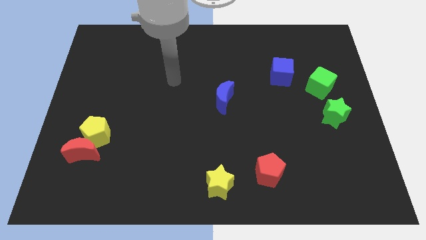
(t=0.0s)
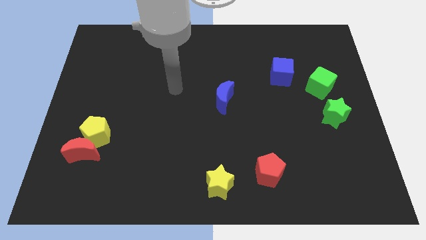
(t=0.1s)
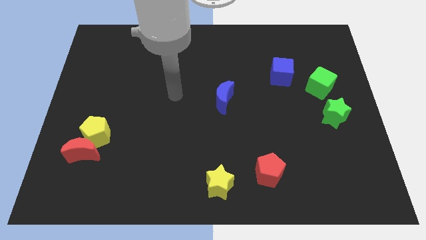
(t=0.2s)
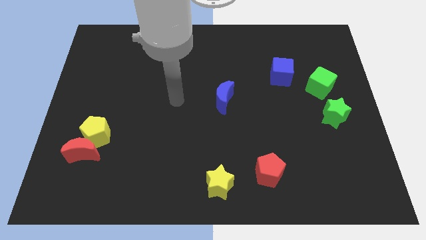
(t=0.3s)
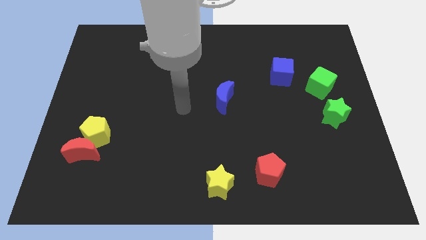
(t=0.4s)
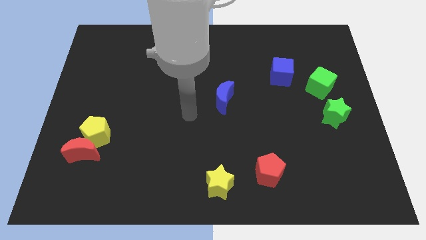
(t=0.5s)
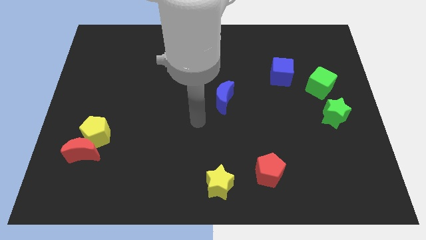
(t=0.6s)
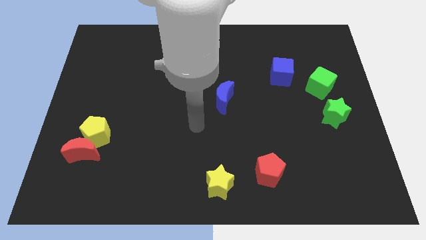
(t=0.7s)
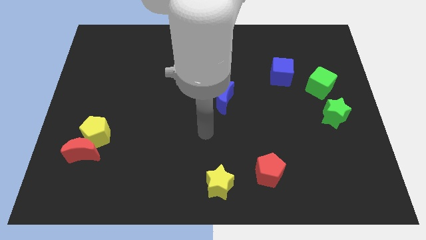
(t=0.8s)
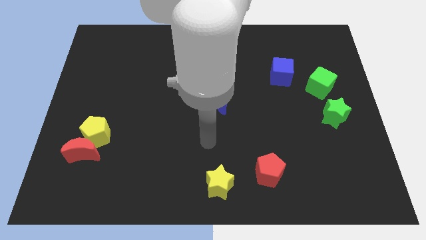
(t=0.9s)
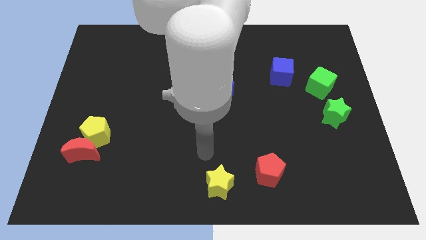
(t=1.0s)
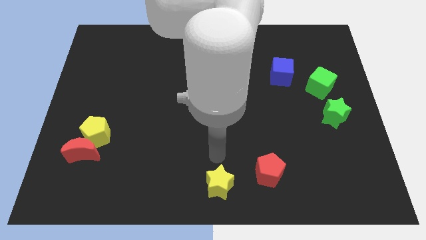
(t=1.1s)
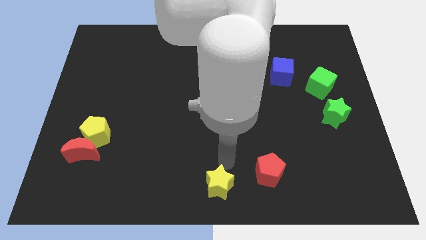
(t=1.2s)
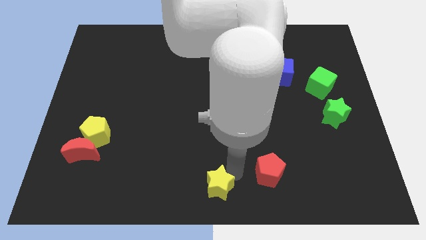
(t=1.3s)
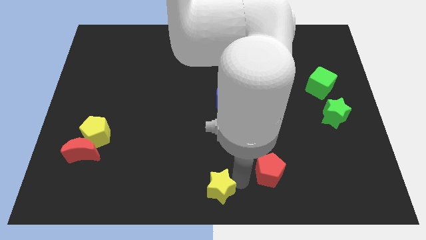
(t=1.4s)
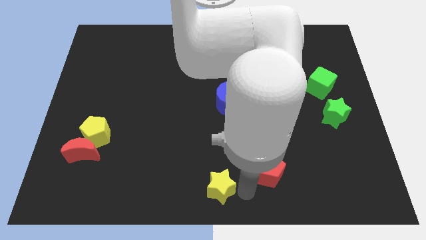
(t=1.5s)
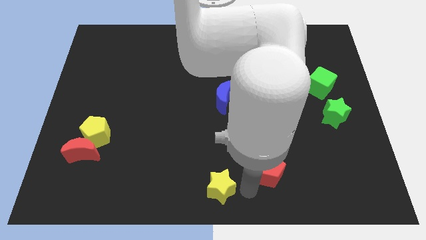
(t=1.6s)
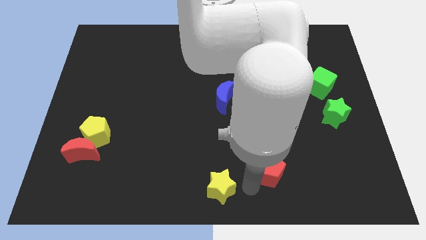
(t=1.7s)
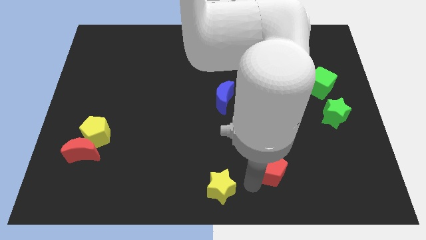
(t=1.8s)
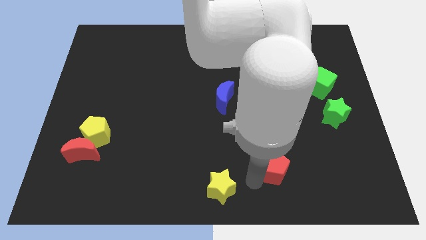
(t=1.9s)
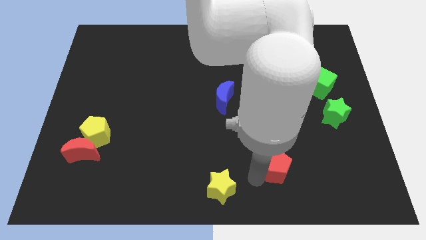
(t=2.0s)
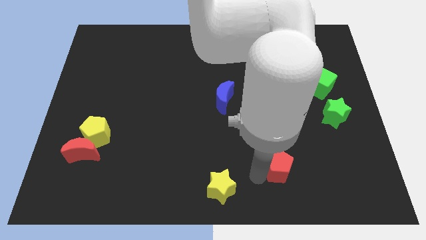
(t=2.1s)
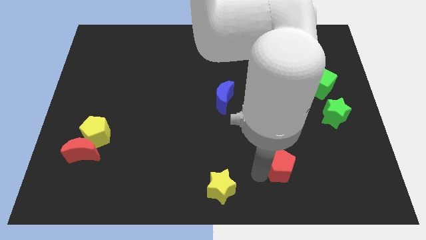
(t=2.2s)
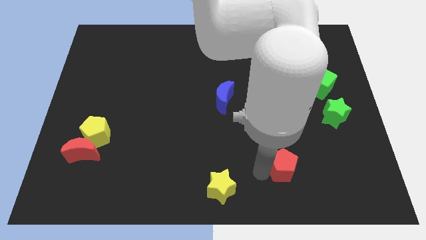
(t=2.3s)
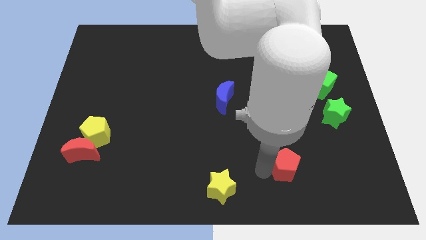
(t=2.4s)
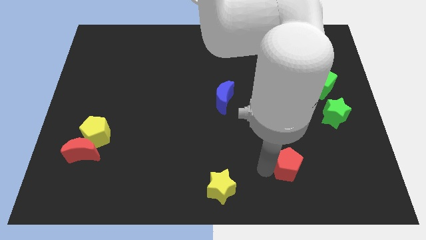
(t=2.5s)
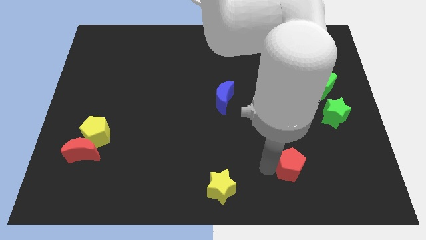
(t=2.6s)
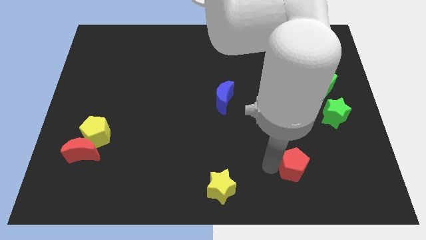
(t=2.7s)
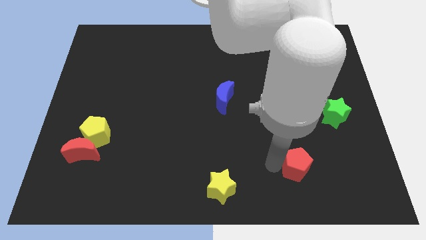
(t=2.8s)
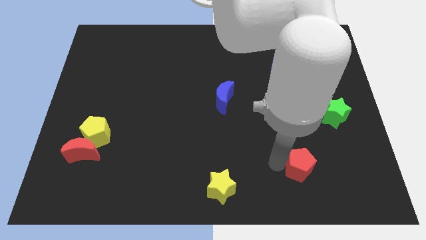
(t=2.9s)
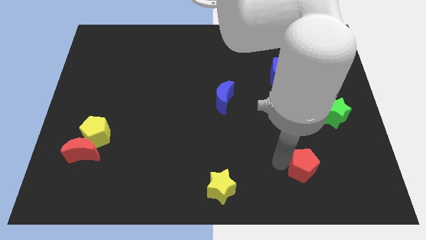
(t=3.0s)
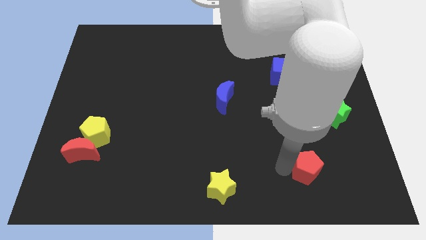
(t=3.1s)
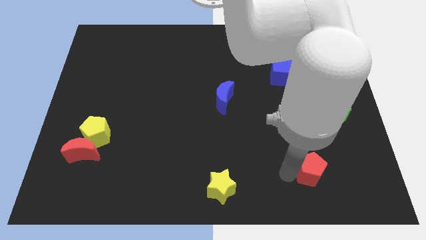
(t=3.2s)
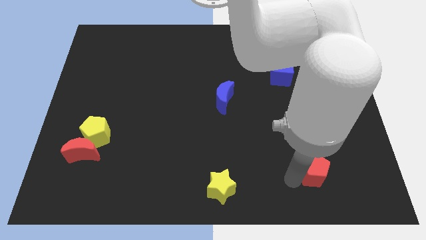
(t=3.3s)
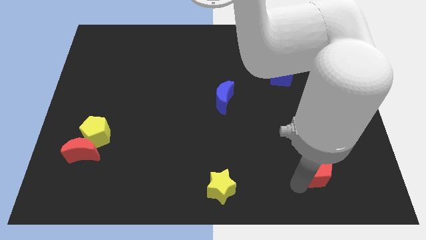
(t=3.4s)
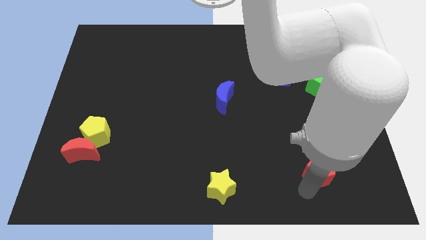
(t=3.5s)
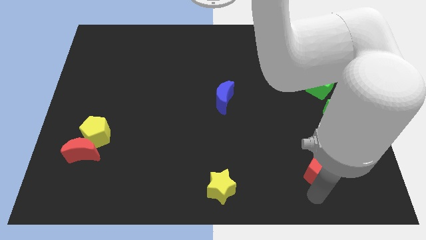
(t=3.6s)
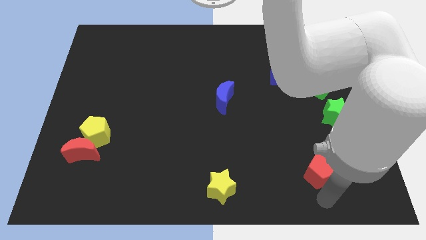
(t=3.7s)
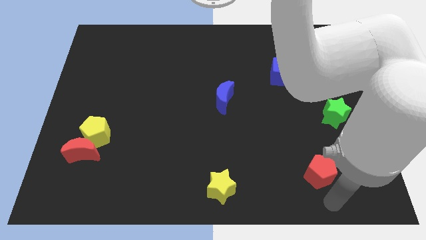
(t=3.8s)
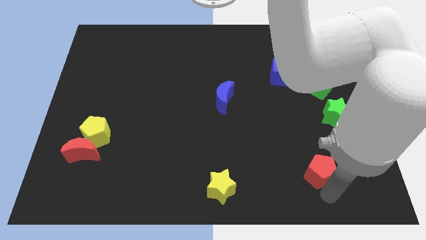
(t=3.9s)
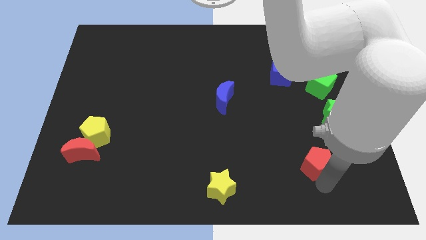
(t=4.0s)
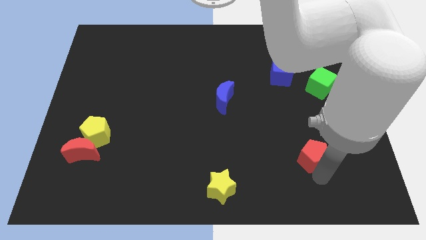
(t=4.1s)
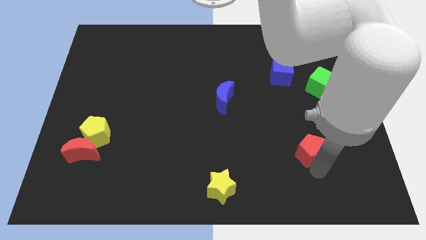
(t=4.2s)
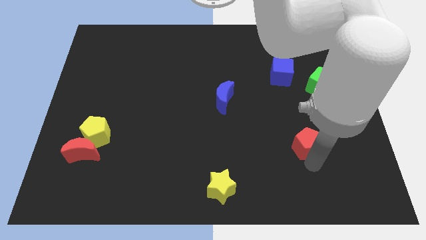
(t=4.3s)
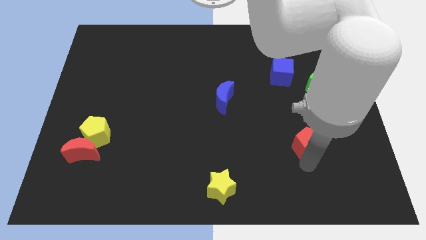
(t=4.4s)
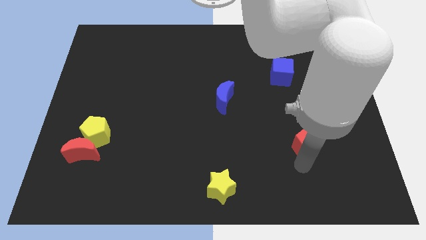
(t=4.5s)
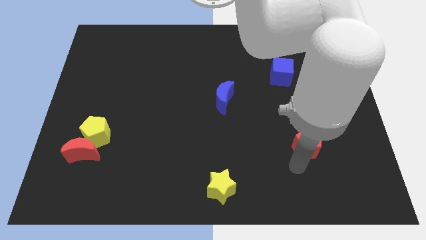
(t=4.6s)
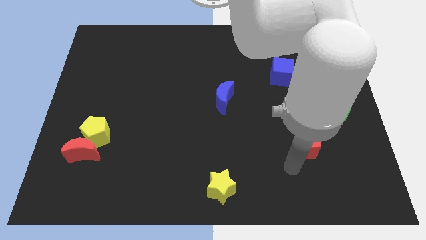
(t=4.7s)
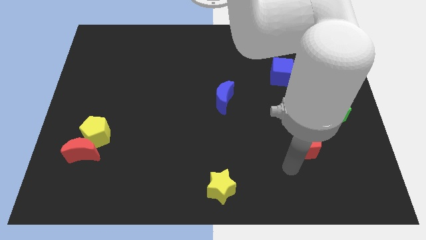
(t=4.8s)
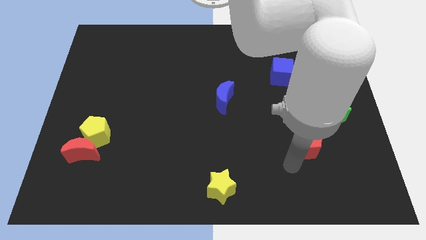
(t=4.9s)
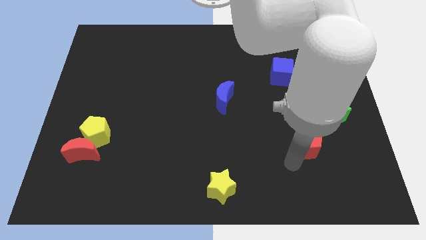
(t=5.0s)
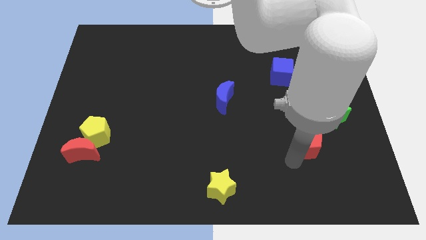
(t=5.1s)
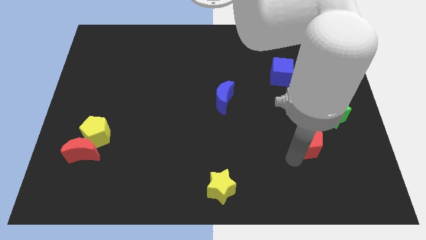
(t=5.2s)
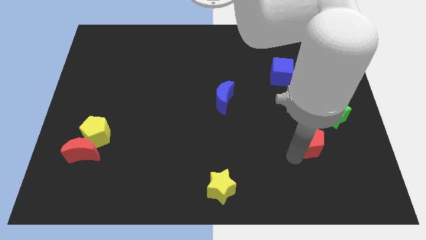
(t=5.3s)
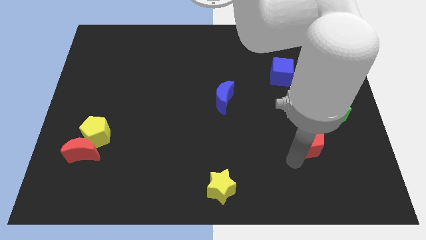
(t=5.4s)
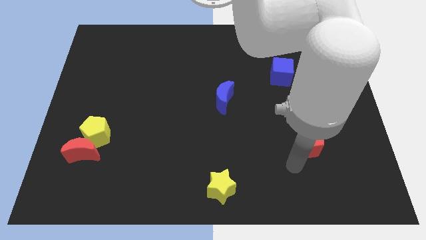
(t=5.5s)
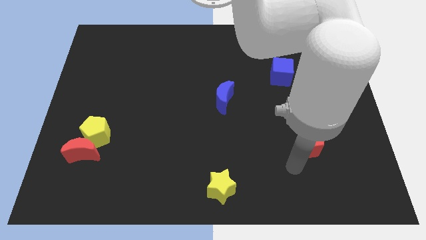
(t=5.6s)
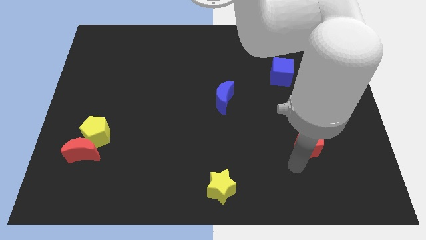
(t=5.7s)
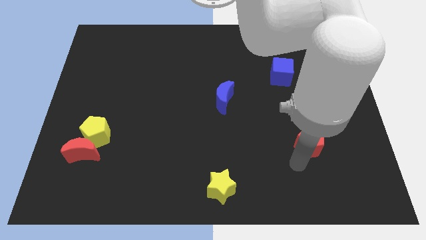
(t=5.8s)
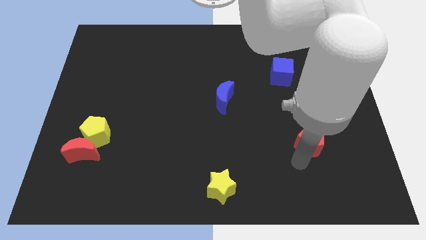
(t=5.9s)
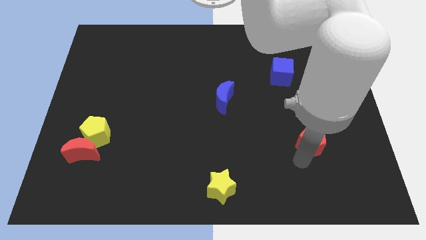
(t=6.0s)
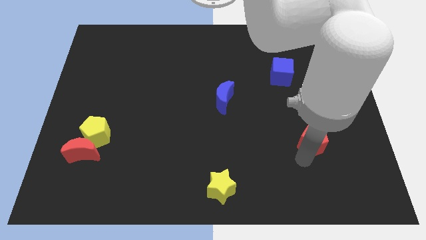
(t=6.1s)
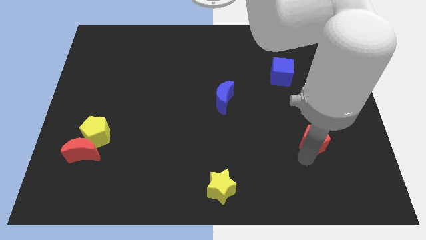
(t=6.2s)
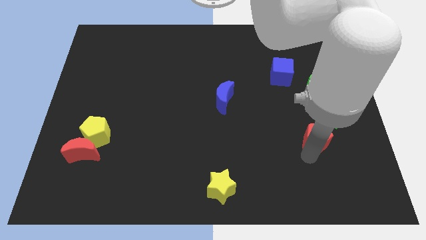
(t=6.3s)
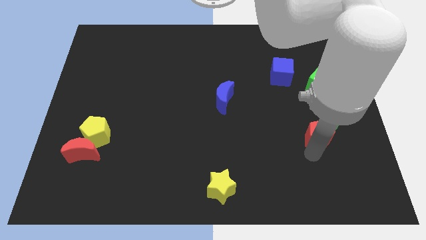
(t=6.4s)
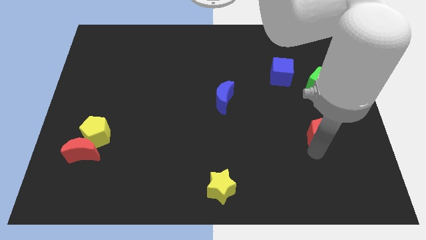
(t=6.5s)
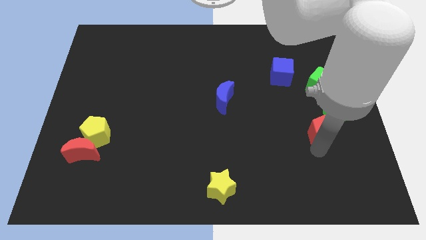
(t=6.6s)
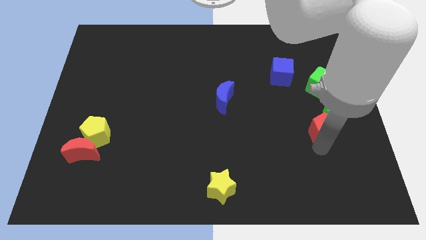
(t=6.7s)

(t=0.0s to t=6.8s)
push the red pentagon close to the green star
